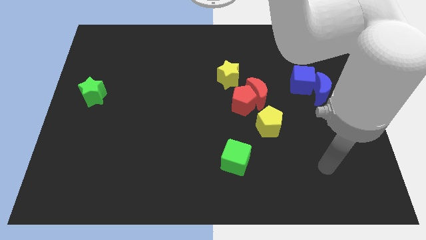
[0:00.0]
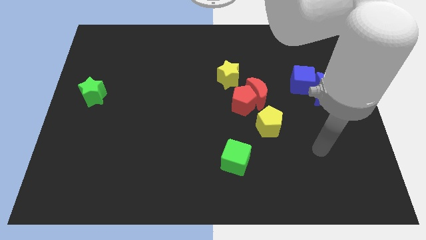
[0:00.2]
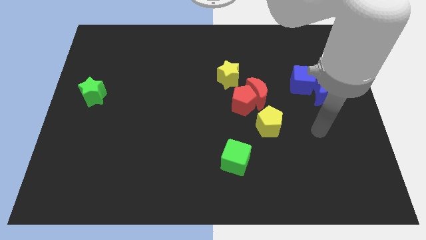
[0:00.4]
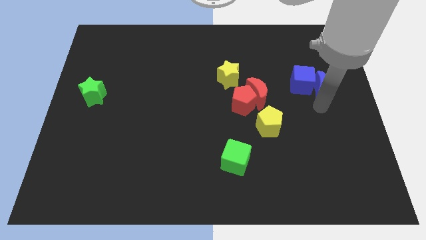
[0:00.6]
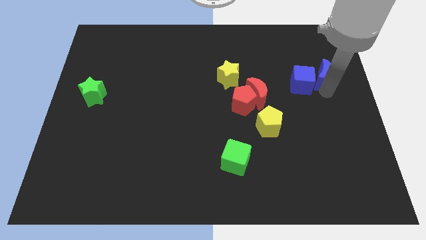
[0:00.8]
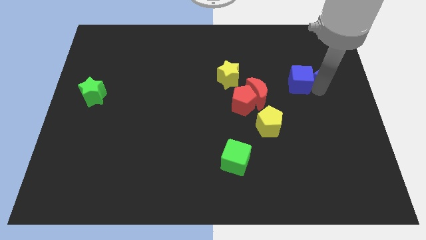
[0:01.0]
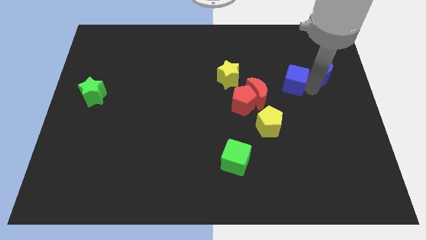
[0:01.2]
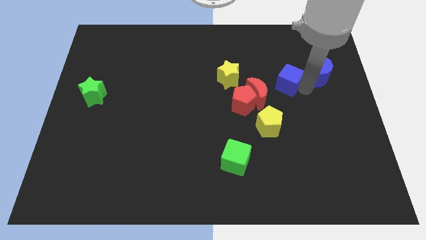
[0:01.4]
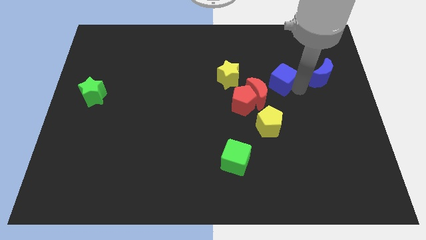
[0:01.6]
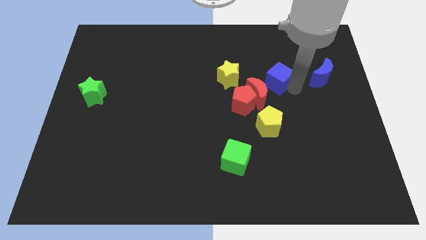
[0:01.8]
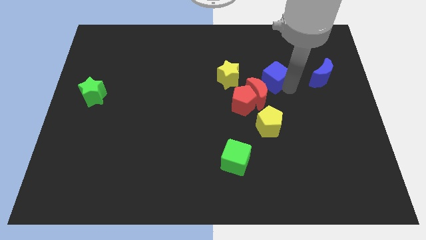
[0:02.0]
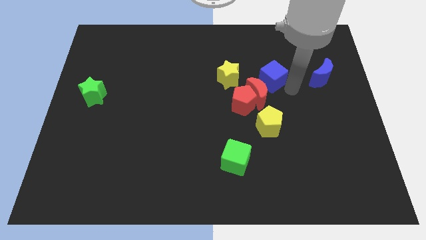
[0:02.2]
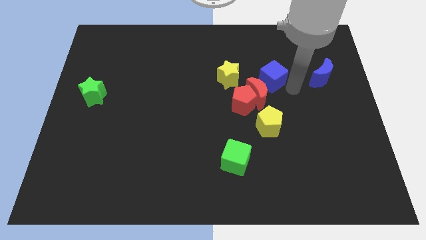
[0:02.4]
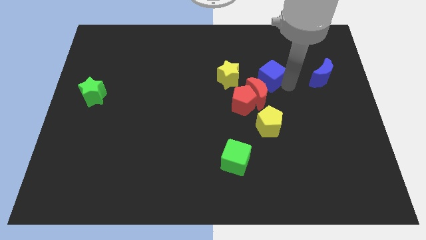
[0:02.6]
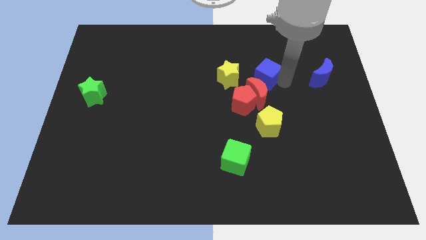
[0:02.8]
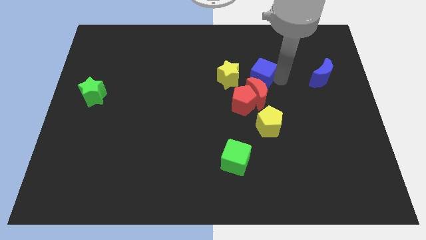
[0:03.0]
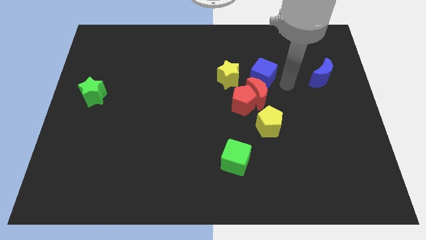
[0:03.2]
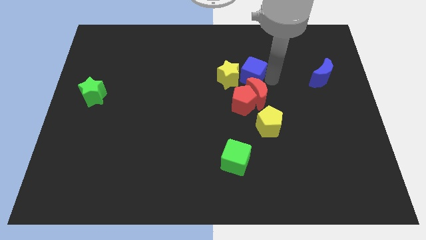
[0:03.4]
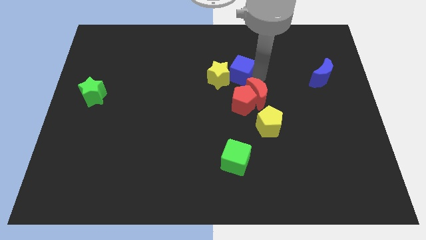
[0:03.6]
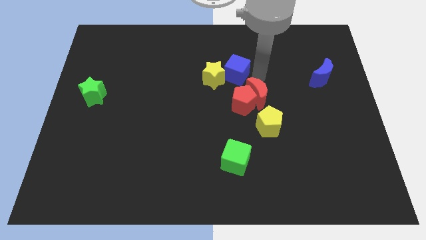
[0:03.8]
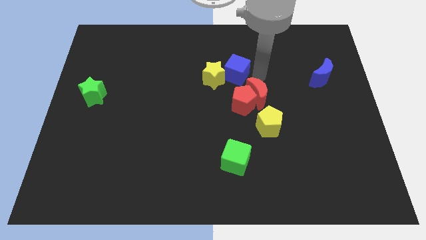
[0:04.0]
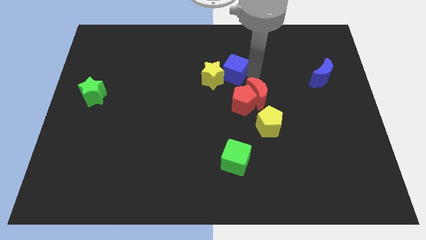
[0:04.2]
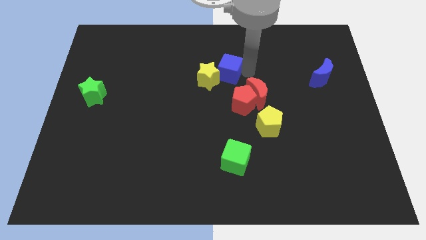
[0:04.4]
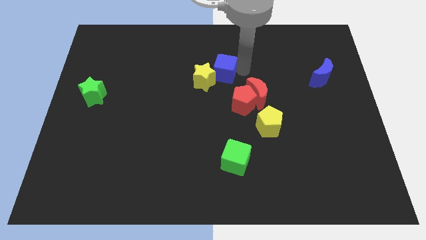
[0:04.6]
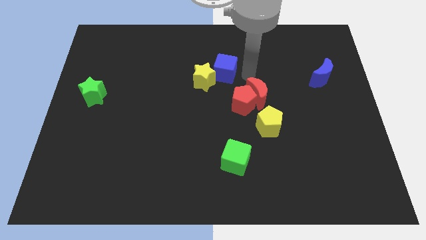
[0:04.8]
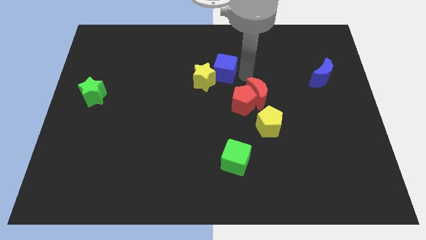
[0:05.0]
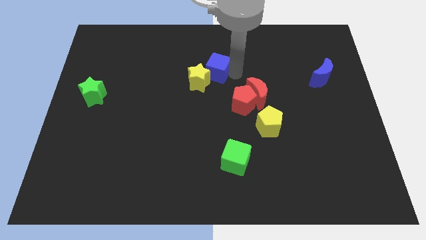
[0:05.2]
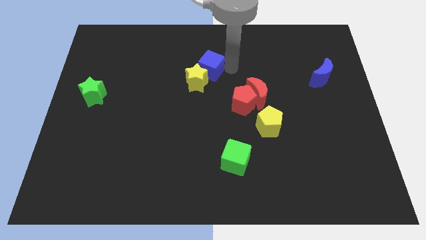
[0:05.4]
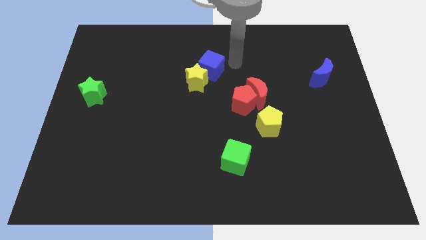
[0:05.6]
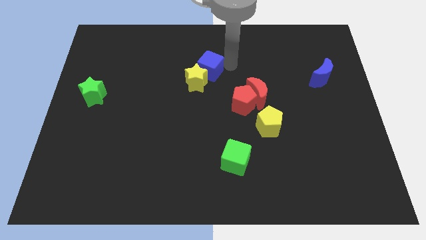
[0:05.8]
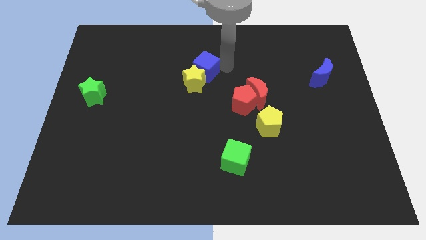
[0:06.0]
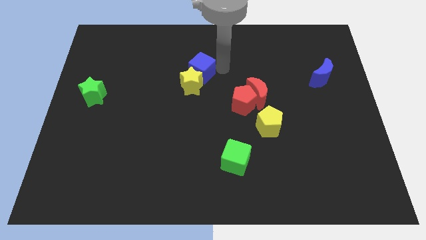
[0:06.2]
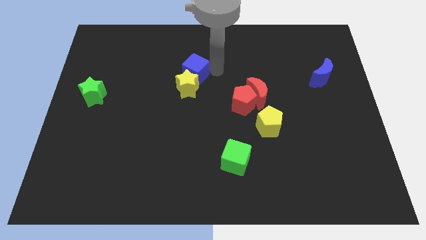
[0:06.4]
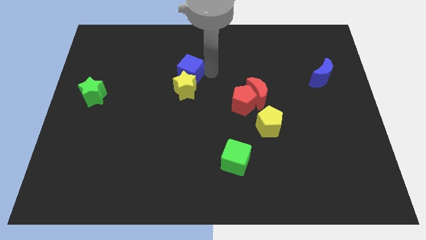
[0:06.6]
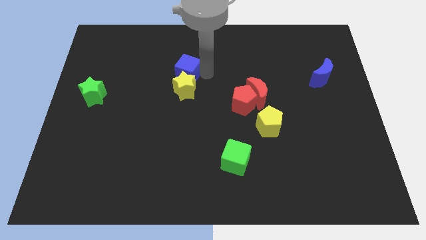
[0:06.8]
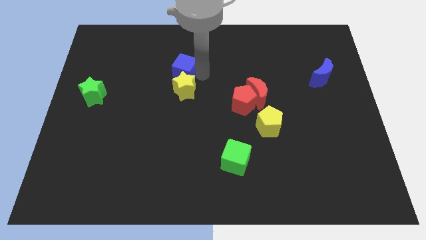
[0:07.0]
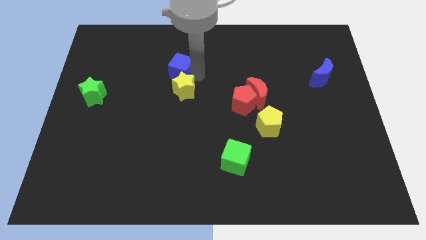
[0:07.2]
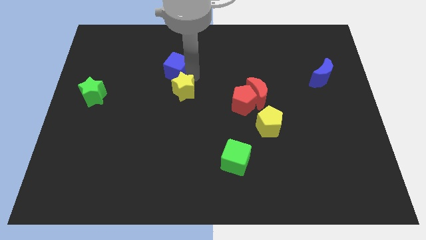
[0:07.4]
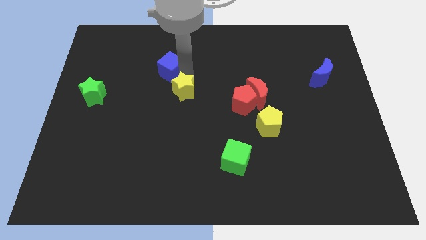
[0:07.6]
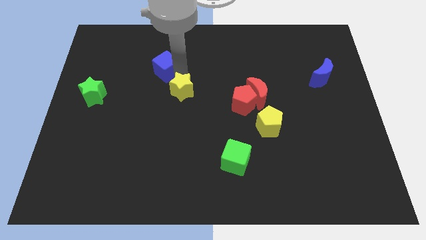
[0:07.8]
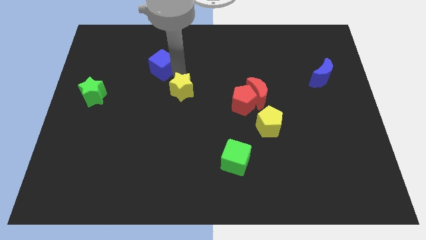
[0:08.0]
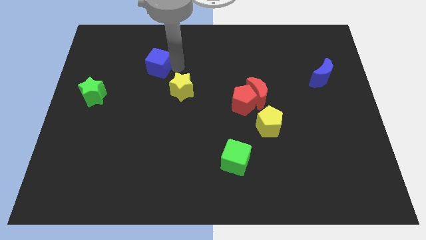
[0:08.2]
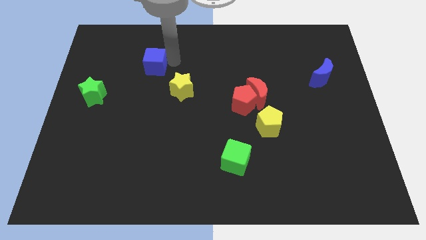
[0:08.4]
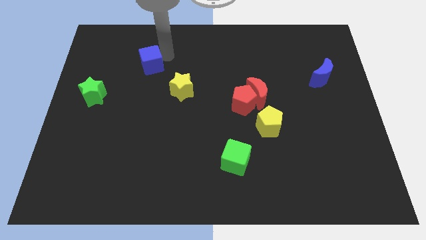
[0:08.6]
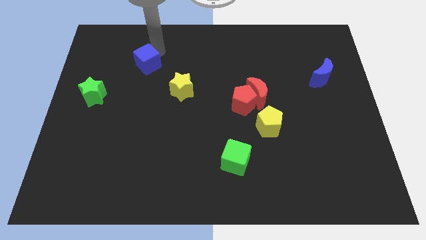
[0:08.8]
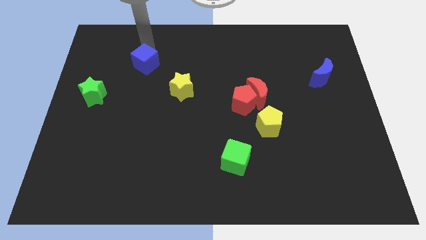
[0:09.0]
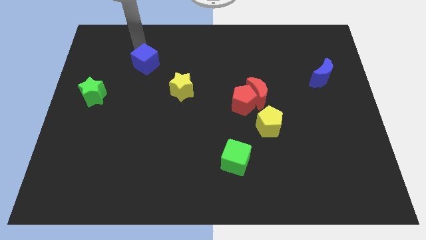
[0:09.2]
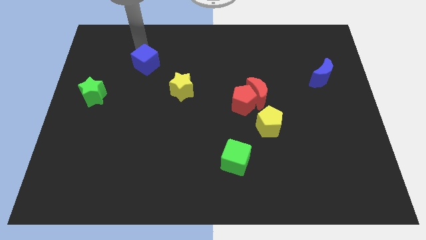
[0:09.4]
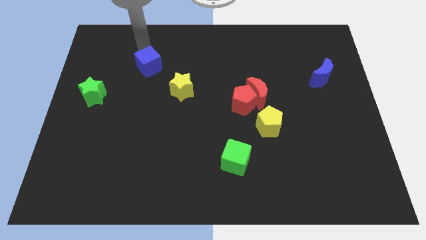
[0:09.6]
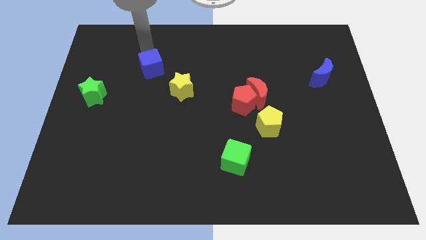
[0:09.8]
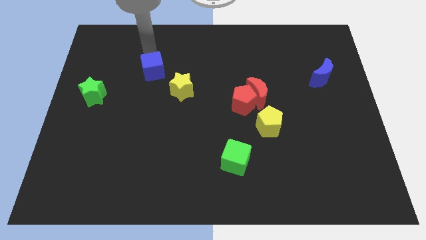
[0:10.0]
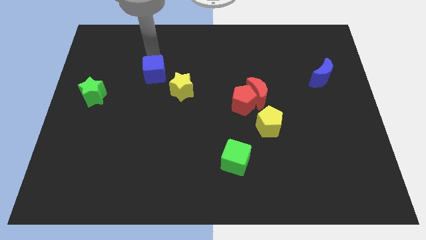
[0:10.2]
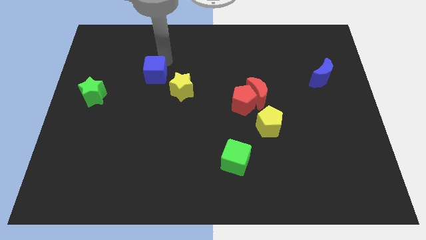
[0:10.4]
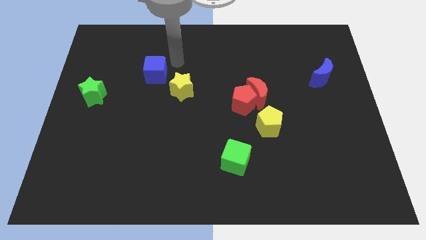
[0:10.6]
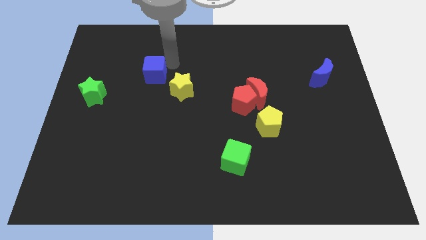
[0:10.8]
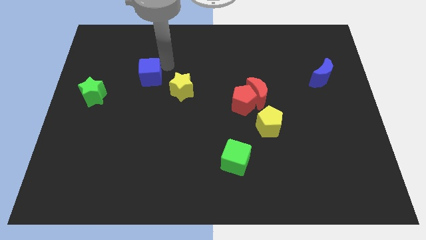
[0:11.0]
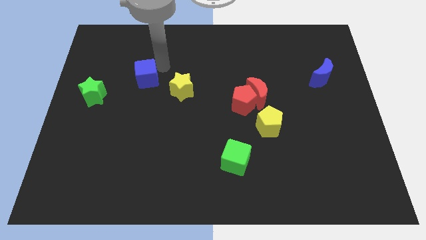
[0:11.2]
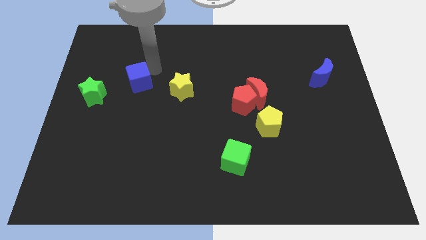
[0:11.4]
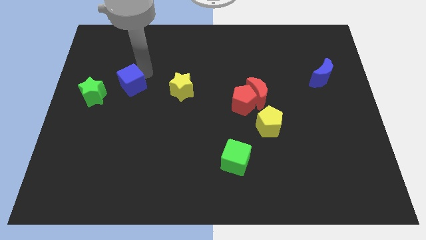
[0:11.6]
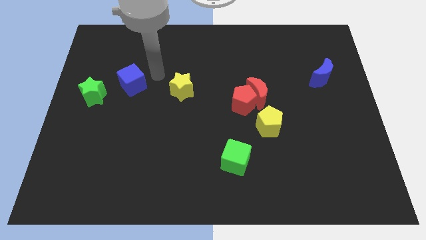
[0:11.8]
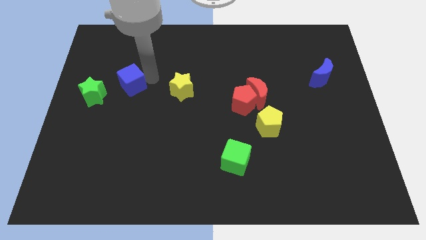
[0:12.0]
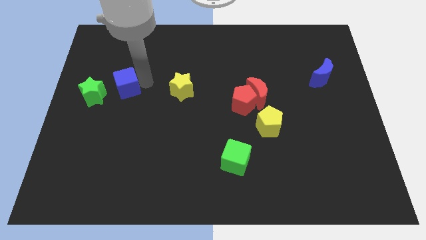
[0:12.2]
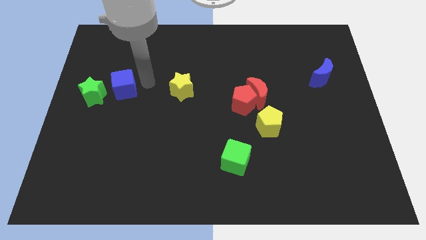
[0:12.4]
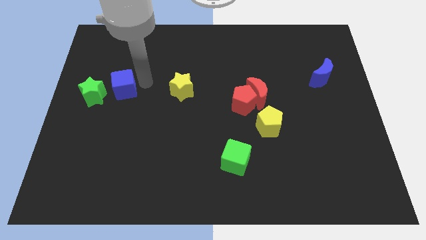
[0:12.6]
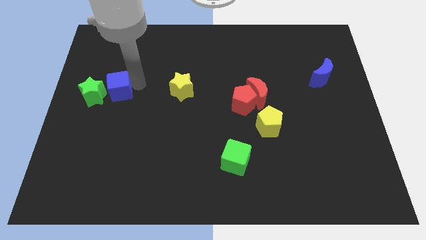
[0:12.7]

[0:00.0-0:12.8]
put the blue cube next to the green star
